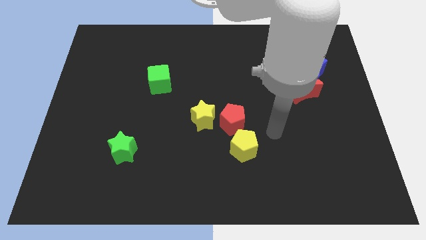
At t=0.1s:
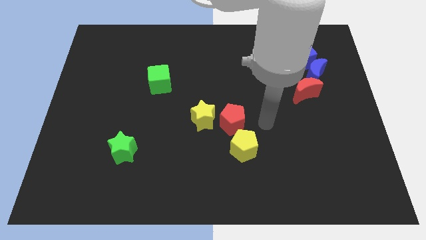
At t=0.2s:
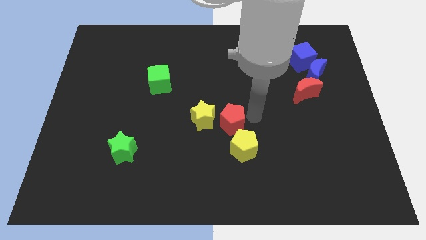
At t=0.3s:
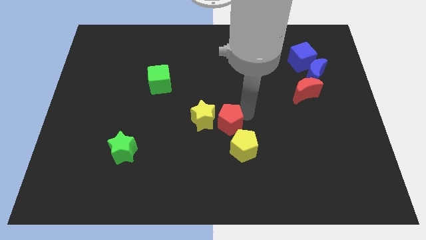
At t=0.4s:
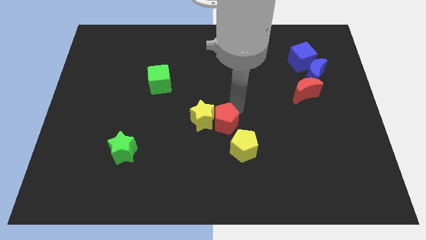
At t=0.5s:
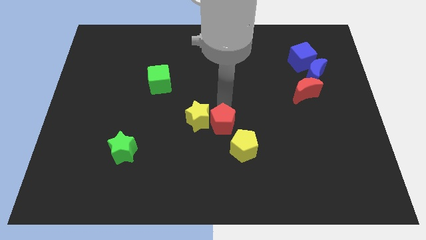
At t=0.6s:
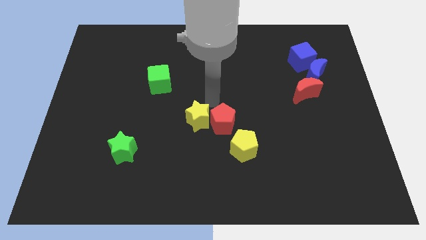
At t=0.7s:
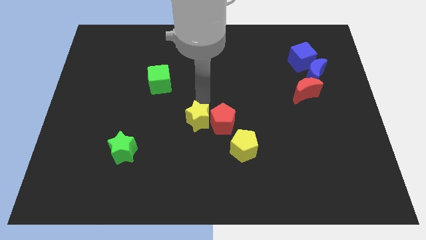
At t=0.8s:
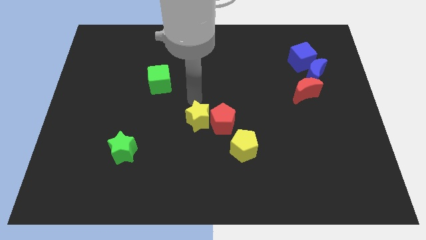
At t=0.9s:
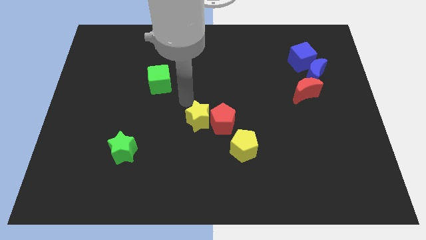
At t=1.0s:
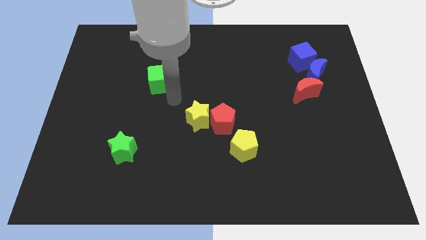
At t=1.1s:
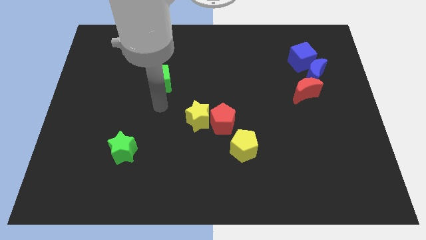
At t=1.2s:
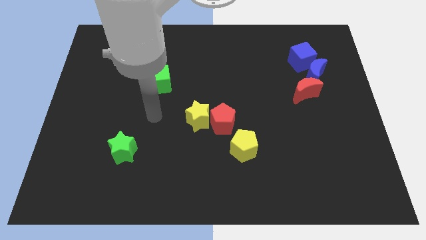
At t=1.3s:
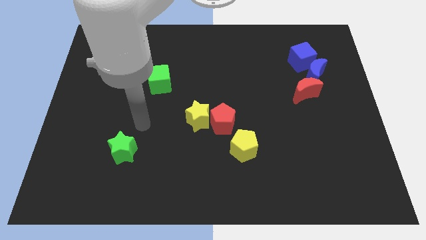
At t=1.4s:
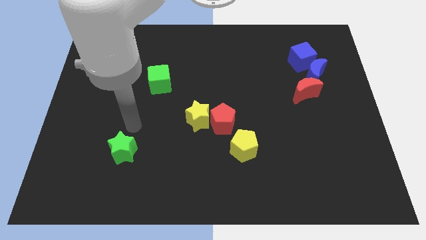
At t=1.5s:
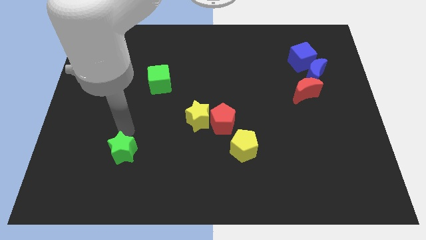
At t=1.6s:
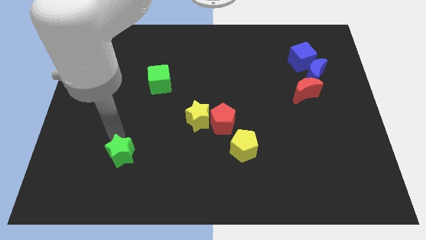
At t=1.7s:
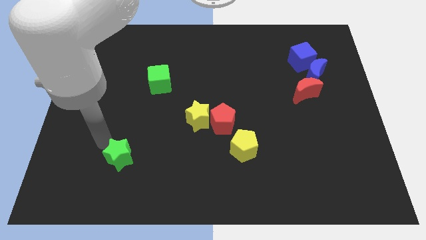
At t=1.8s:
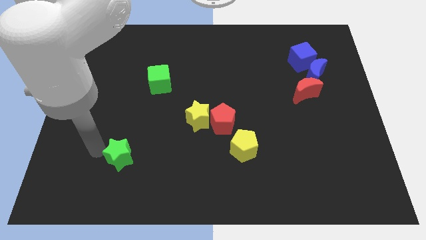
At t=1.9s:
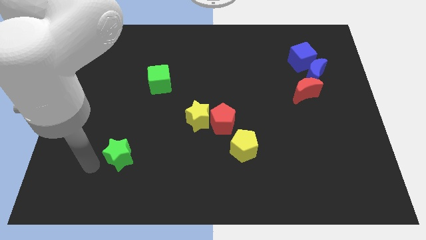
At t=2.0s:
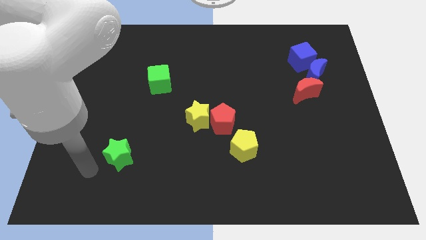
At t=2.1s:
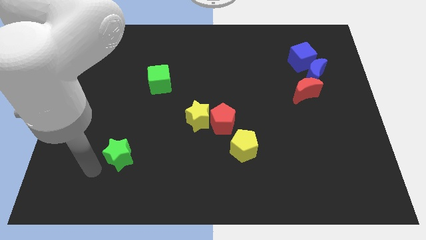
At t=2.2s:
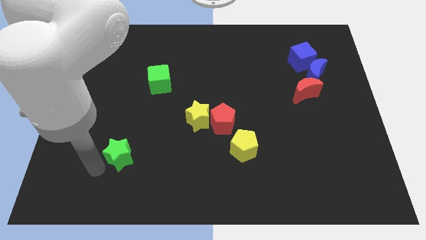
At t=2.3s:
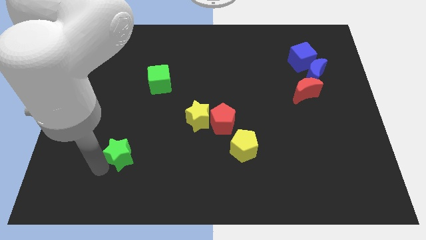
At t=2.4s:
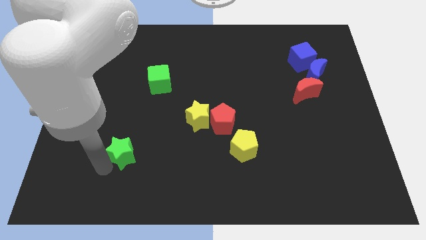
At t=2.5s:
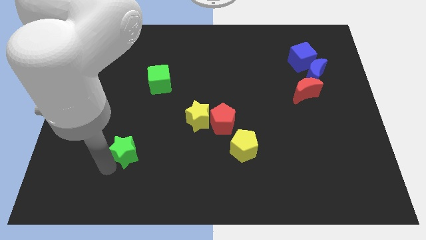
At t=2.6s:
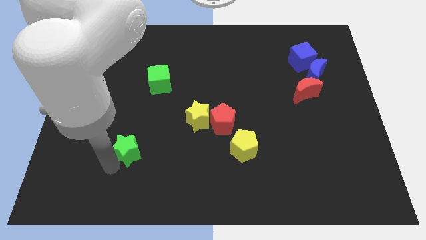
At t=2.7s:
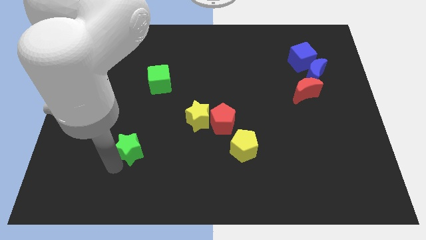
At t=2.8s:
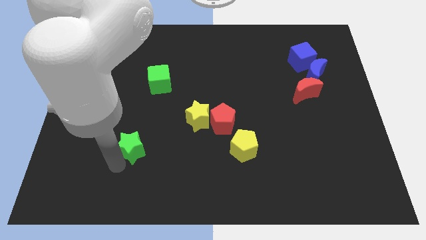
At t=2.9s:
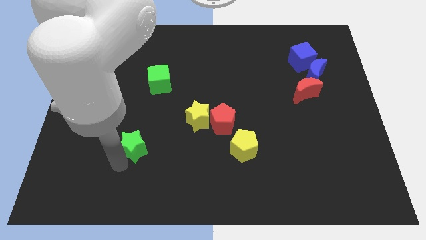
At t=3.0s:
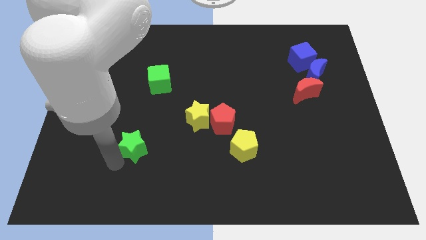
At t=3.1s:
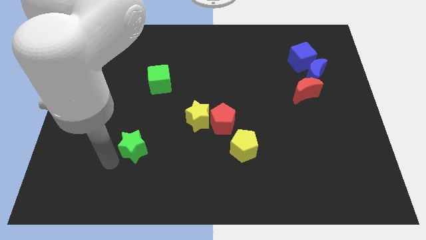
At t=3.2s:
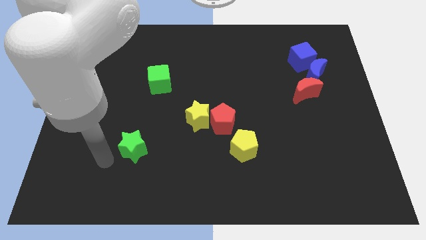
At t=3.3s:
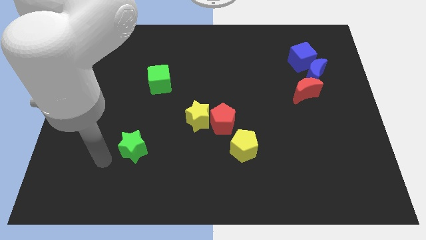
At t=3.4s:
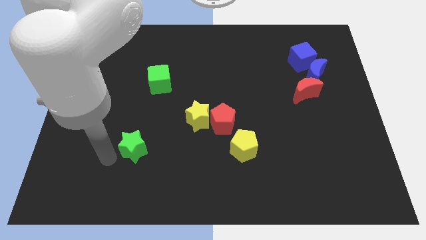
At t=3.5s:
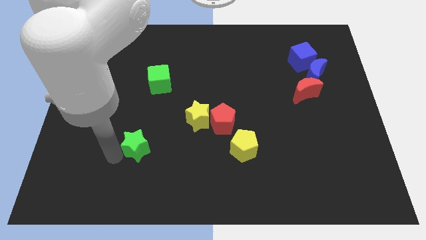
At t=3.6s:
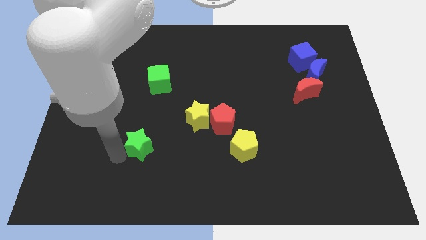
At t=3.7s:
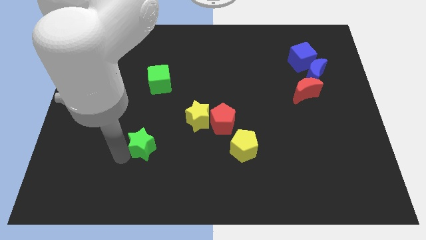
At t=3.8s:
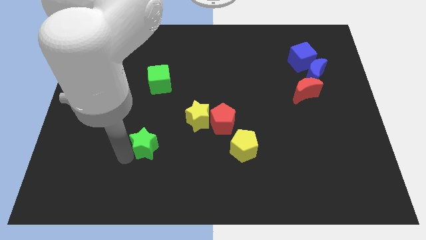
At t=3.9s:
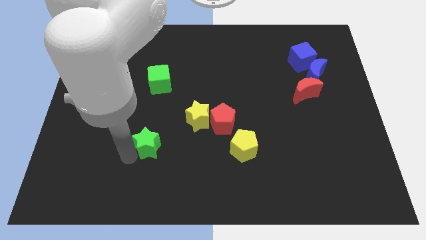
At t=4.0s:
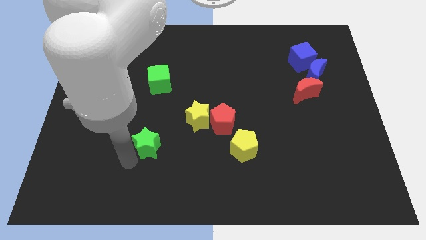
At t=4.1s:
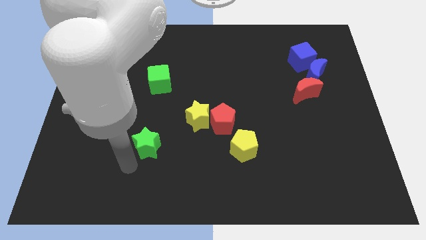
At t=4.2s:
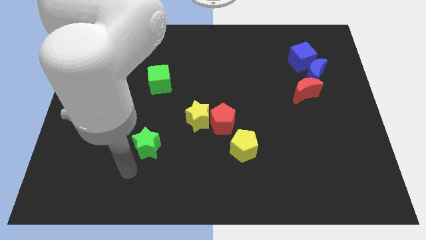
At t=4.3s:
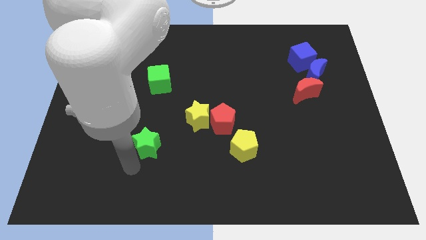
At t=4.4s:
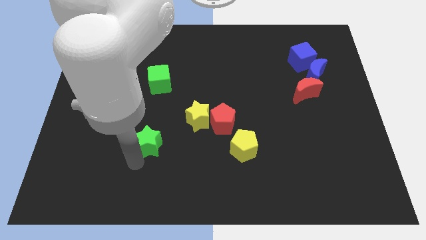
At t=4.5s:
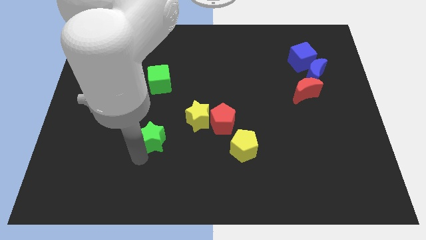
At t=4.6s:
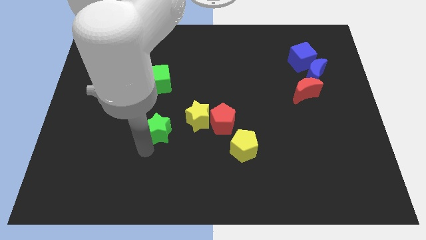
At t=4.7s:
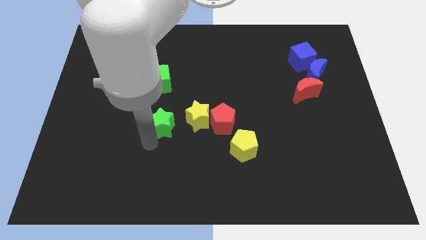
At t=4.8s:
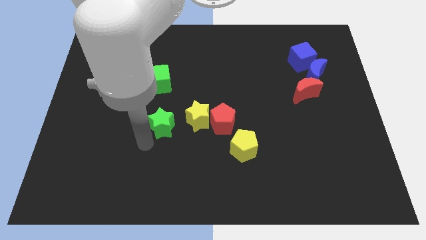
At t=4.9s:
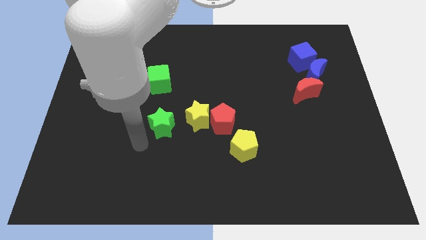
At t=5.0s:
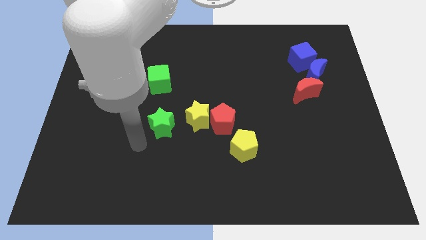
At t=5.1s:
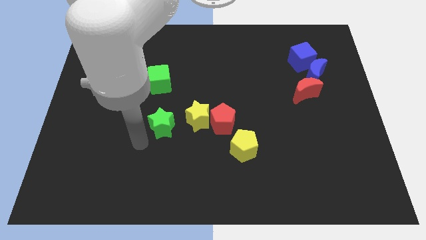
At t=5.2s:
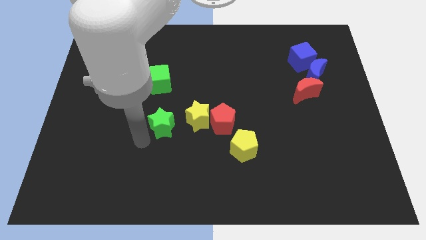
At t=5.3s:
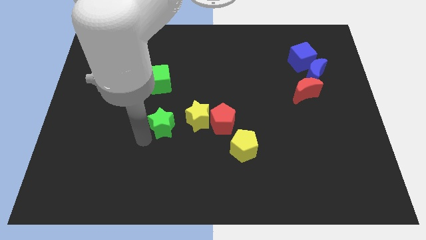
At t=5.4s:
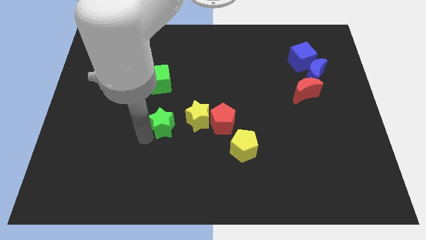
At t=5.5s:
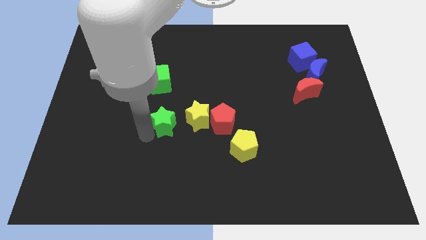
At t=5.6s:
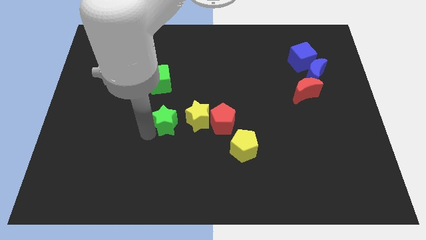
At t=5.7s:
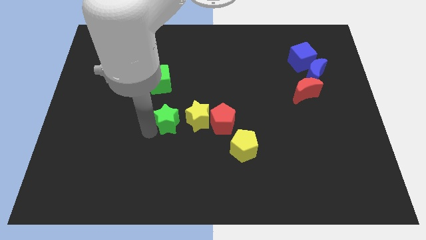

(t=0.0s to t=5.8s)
put the green star to the center
